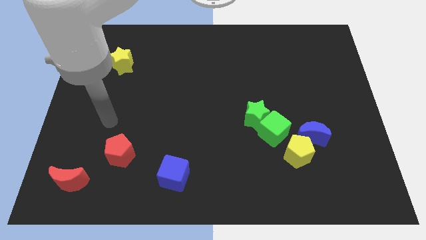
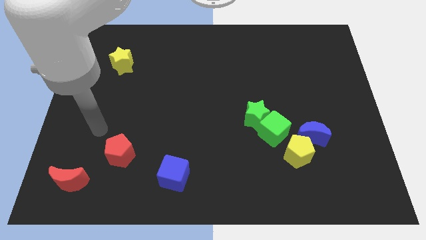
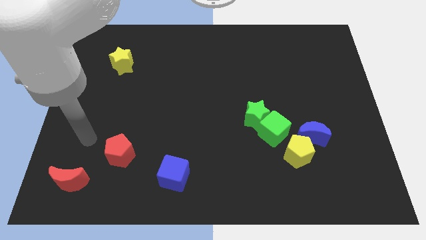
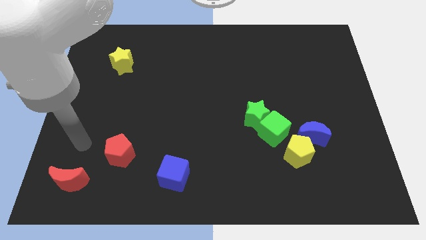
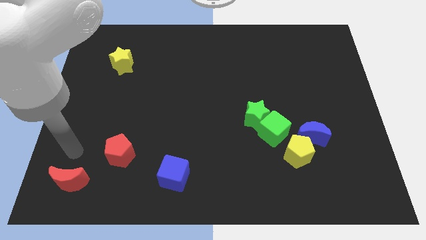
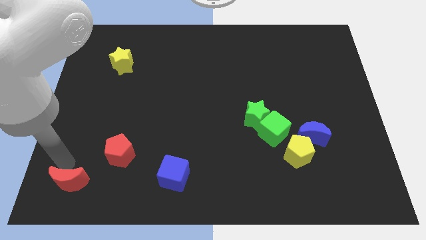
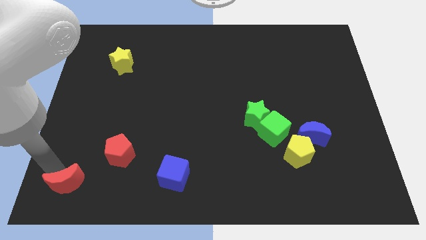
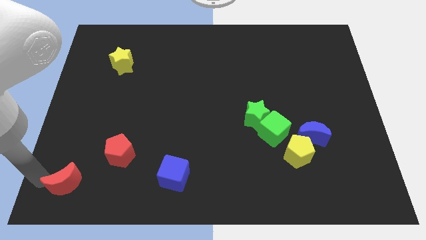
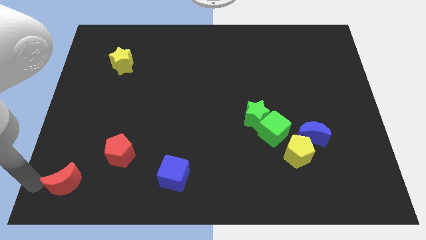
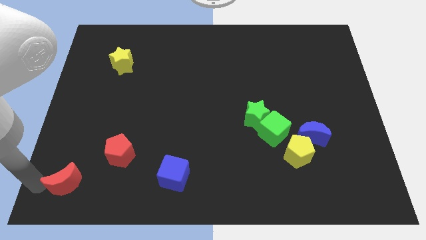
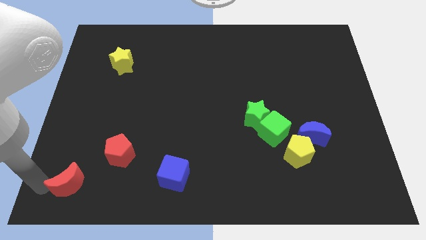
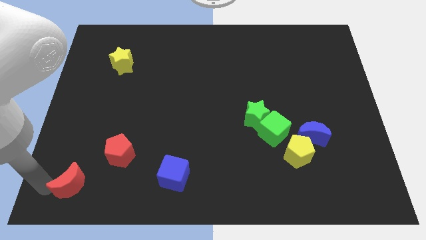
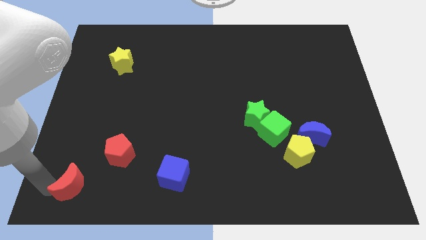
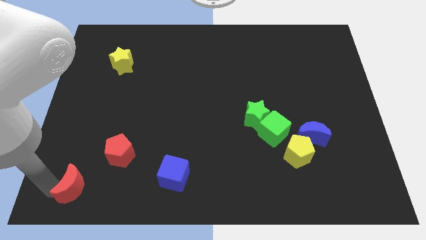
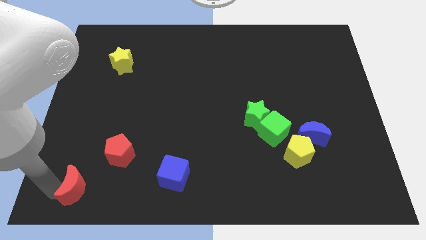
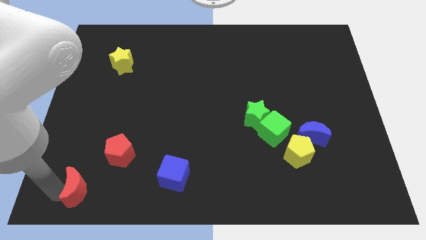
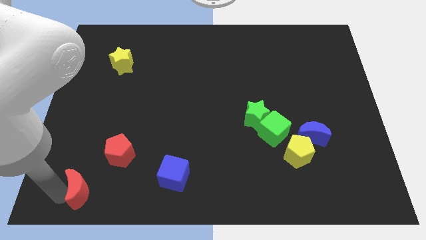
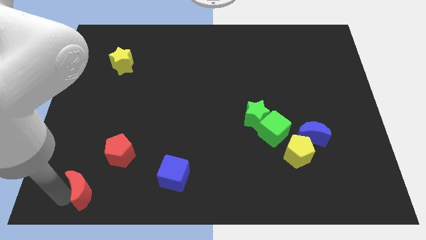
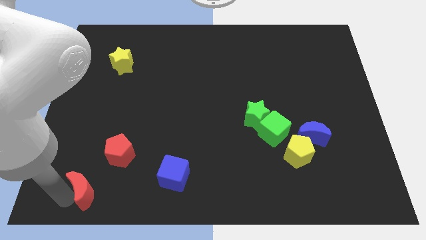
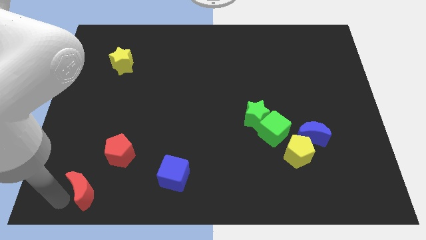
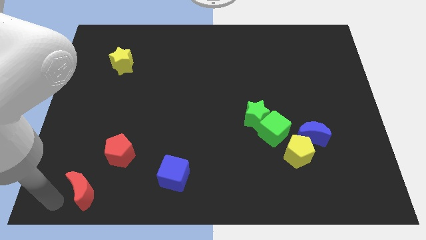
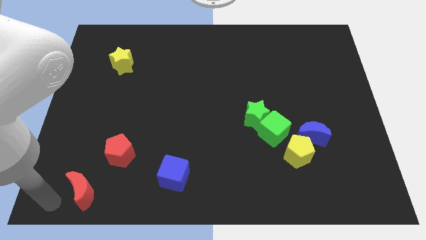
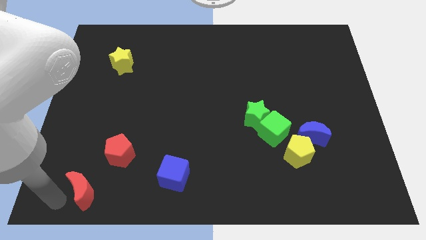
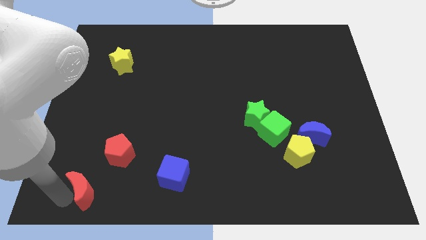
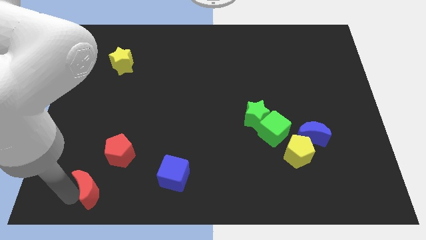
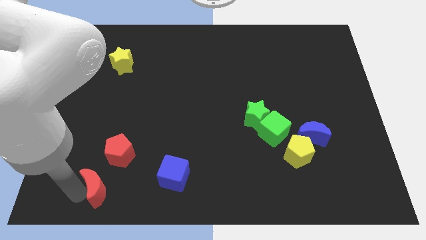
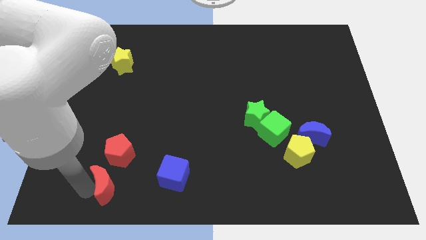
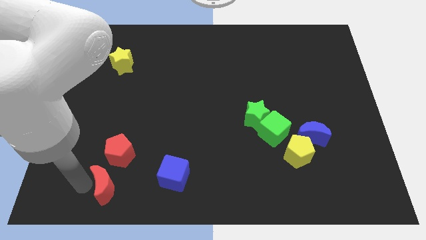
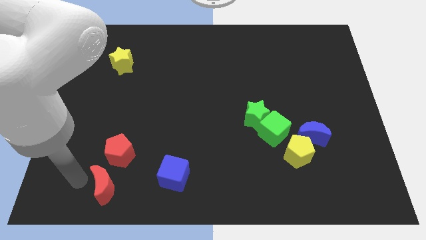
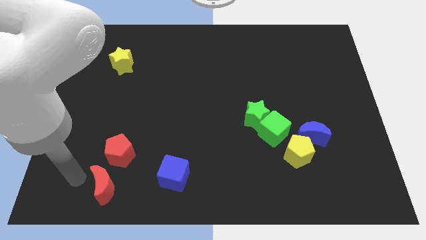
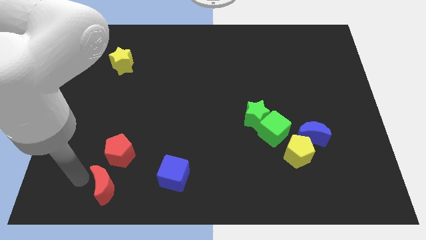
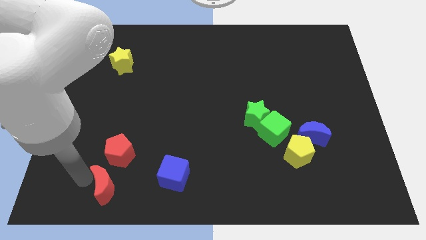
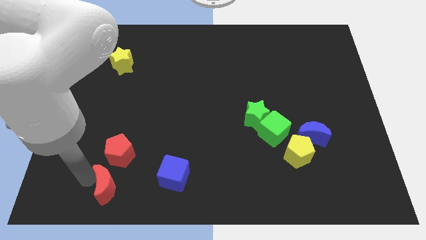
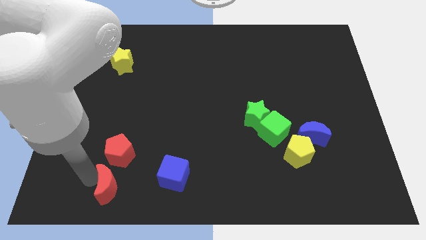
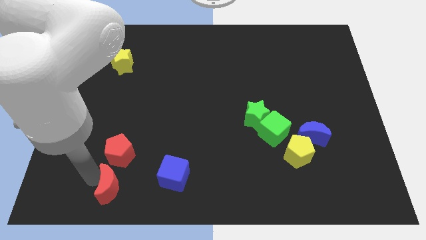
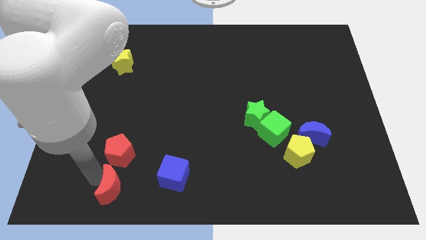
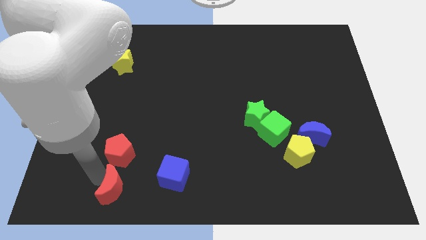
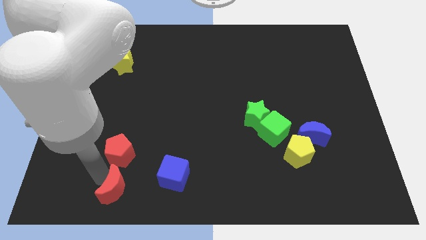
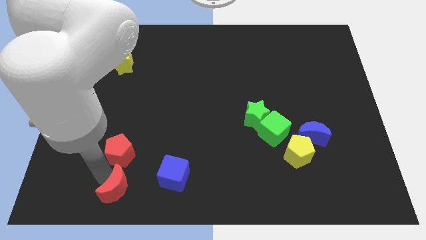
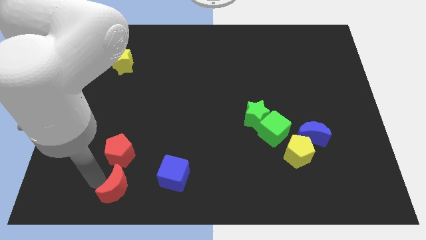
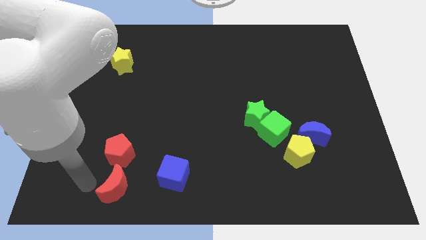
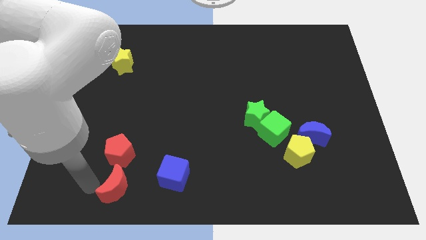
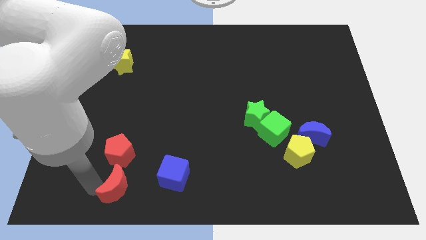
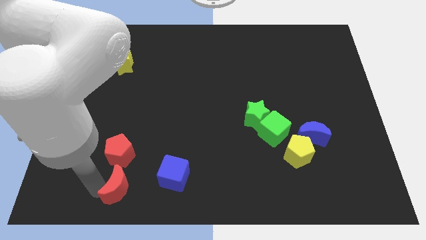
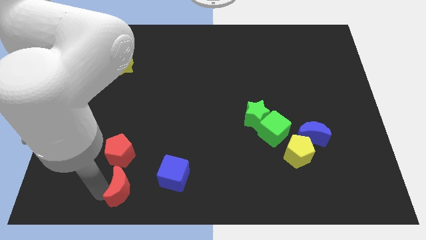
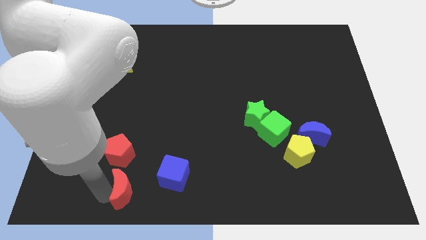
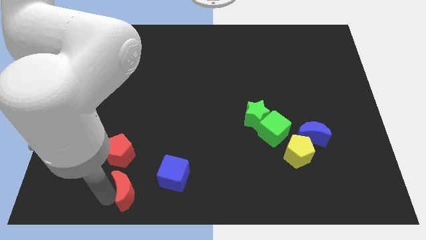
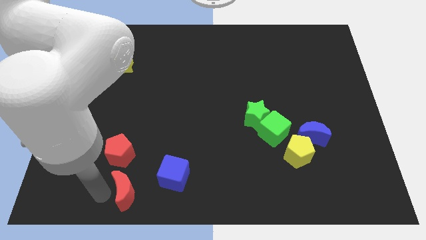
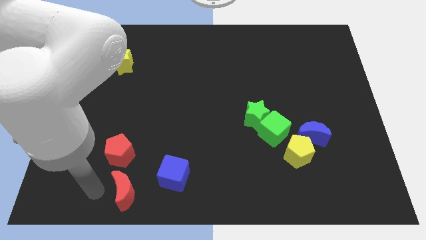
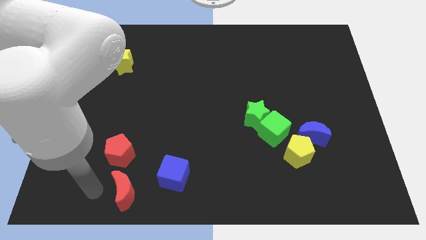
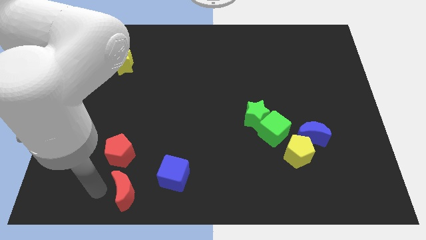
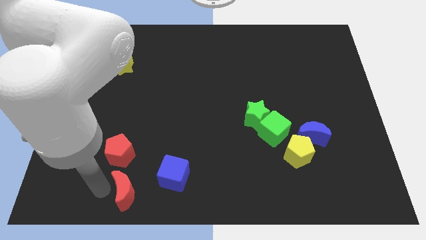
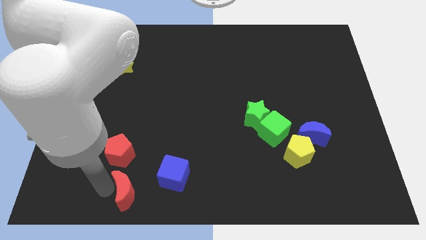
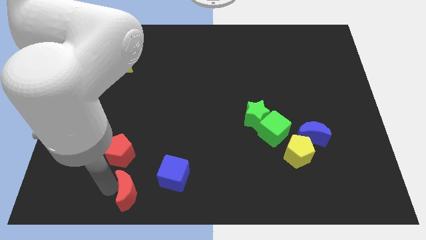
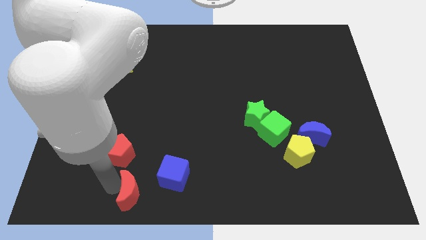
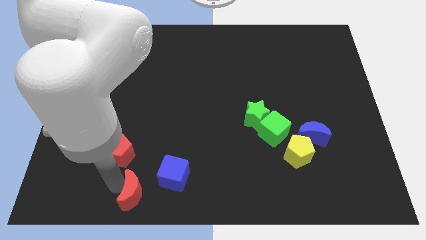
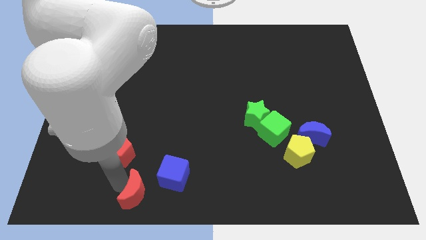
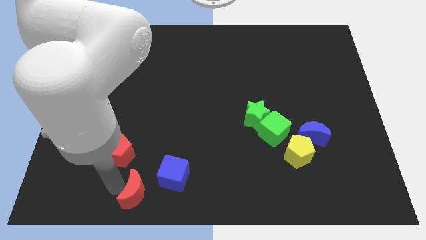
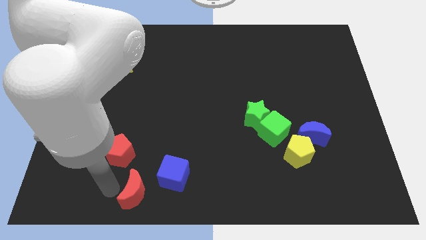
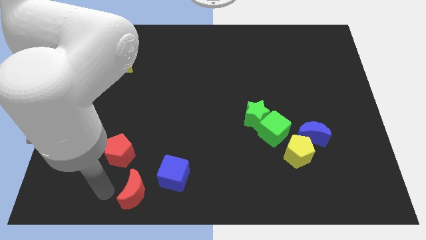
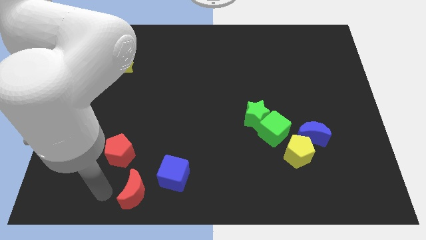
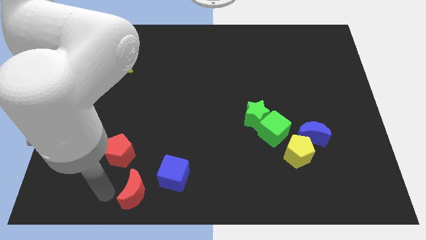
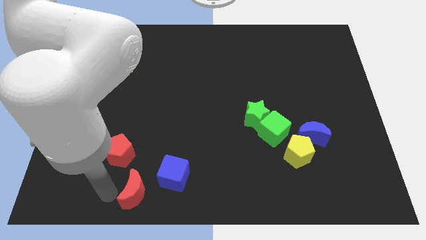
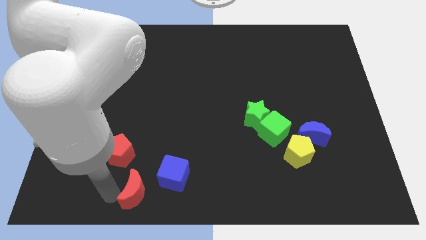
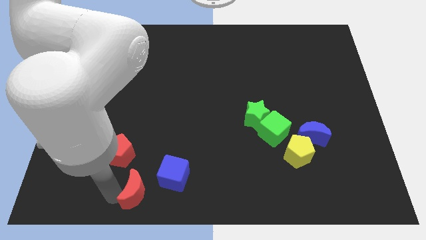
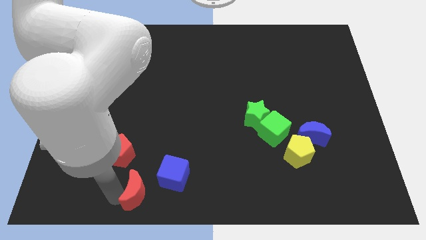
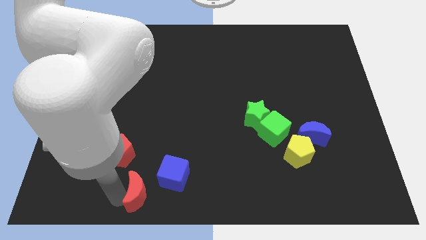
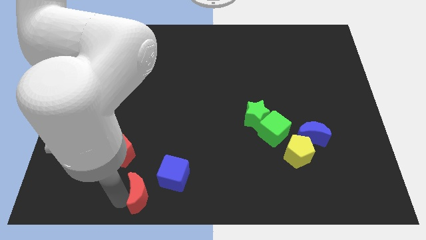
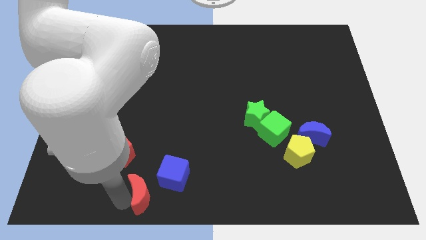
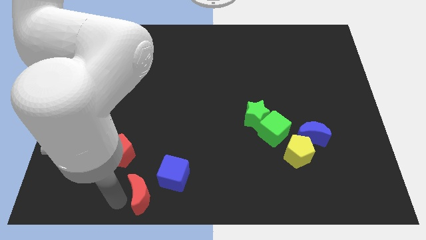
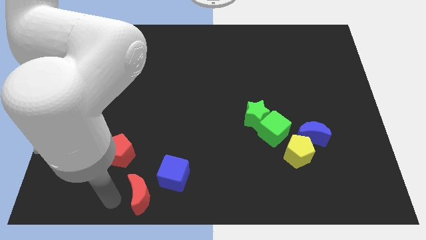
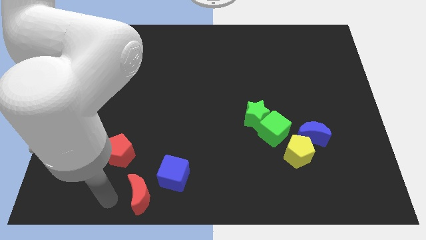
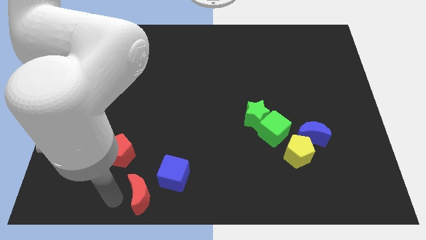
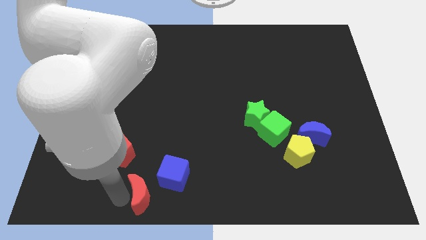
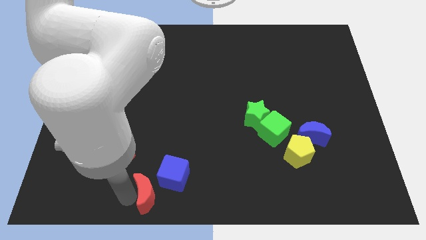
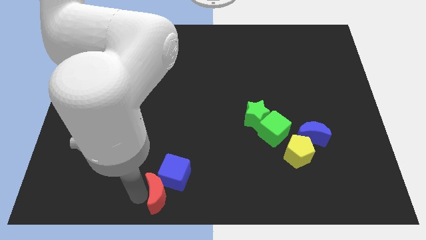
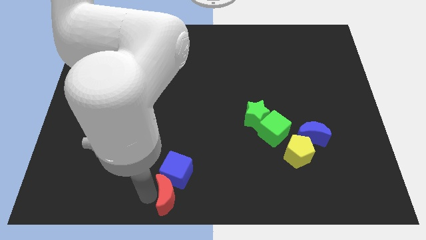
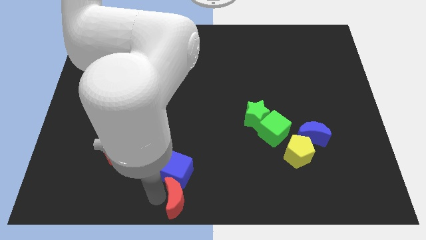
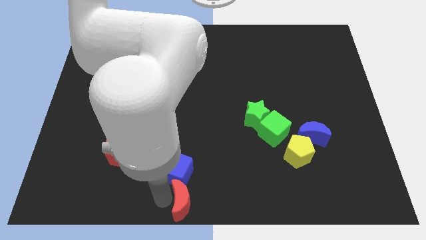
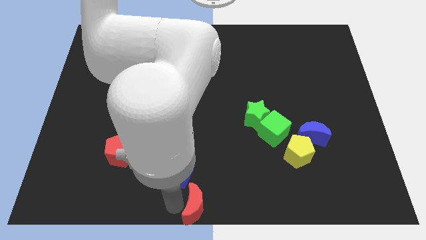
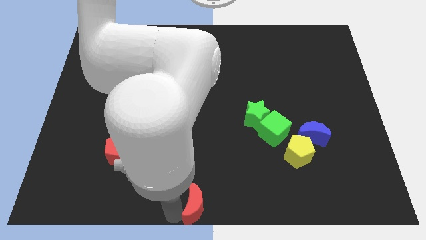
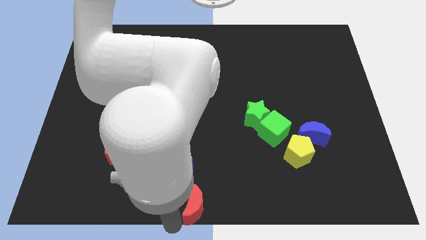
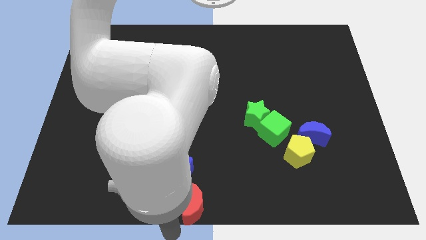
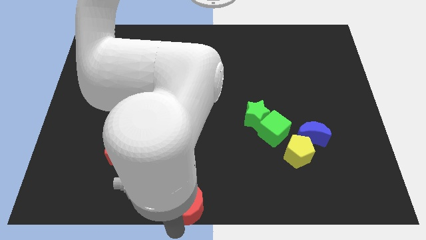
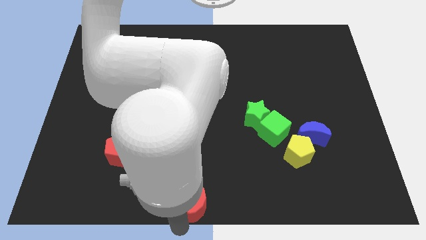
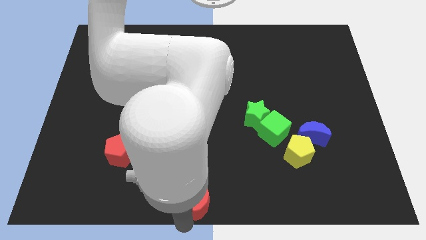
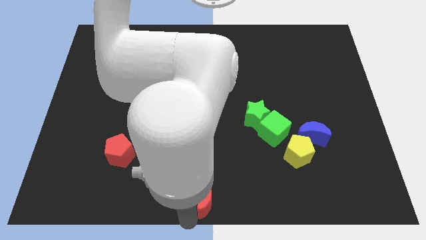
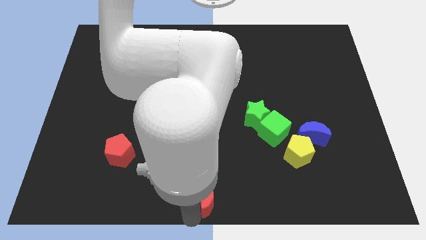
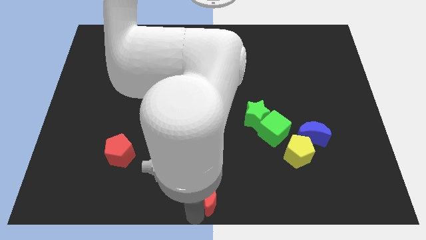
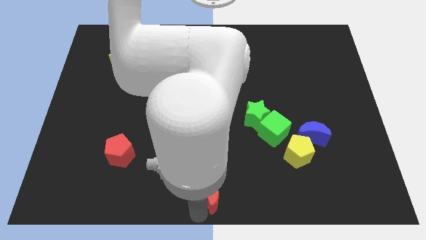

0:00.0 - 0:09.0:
put the red moon to the right of the blue cube
